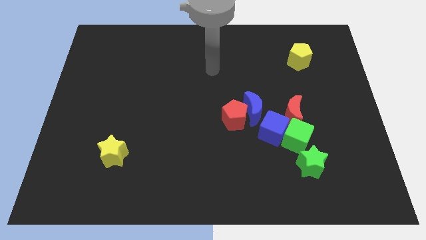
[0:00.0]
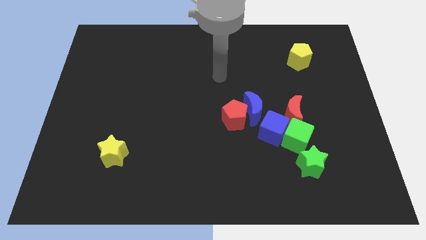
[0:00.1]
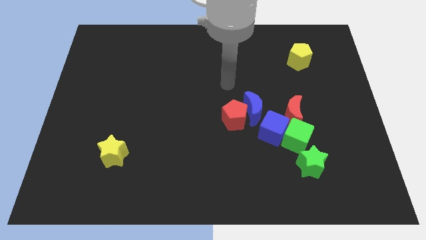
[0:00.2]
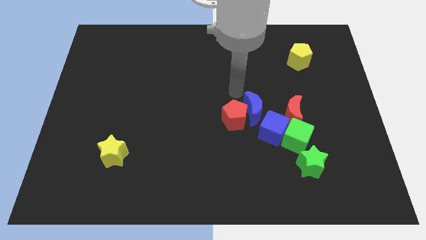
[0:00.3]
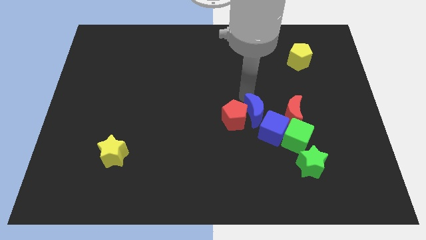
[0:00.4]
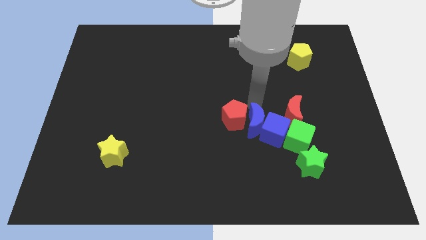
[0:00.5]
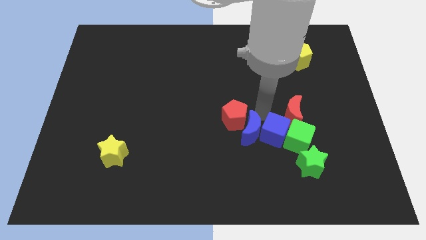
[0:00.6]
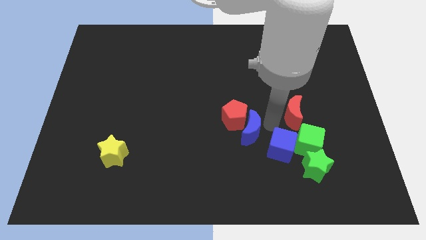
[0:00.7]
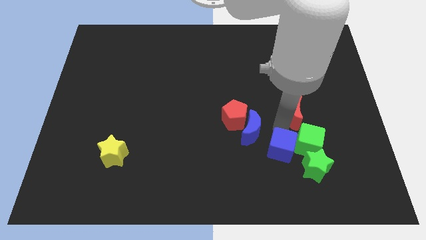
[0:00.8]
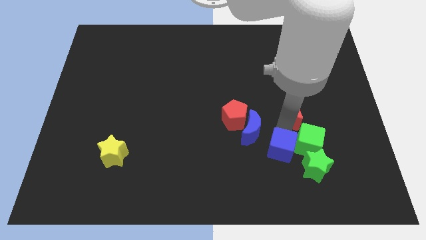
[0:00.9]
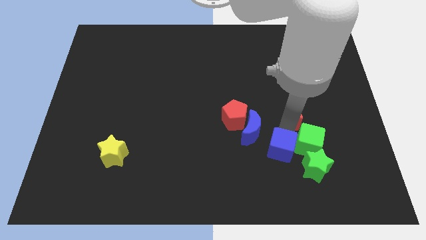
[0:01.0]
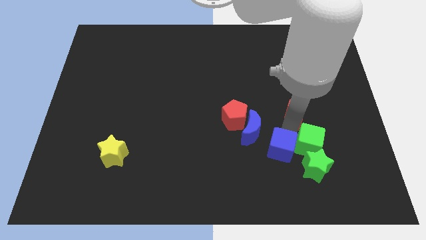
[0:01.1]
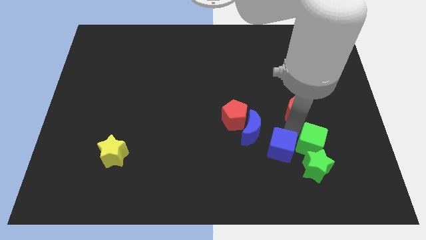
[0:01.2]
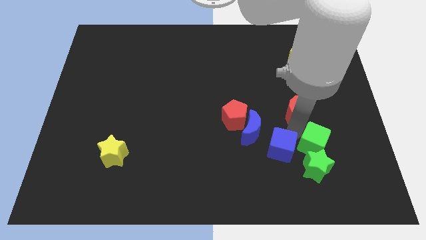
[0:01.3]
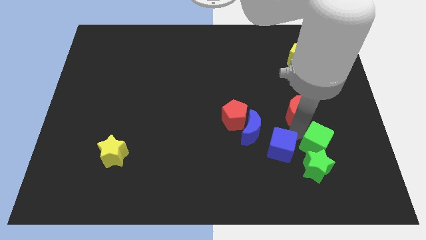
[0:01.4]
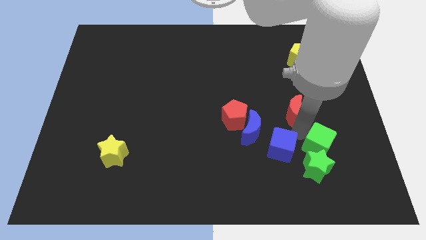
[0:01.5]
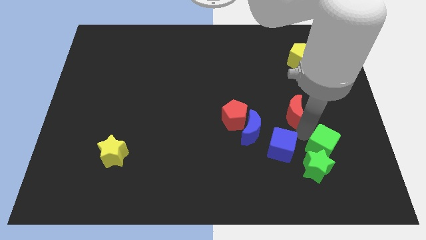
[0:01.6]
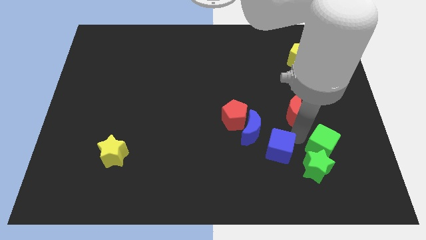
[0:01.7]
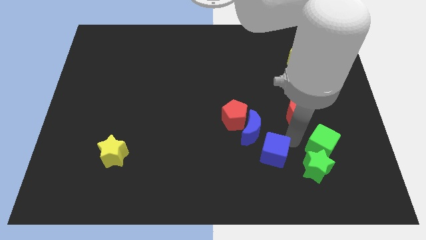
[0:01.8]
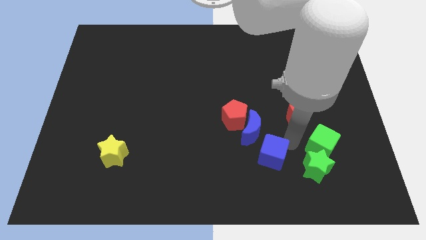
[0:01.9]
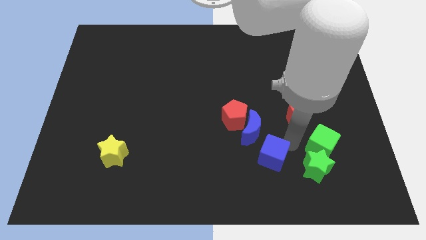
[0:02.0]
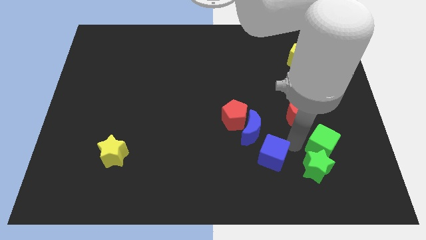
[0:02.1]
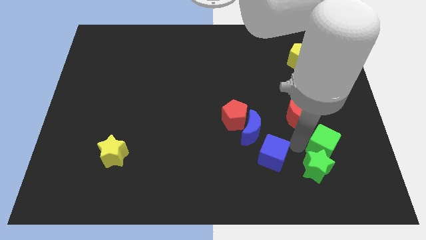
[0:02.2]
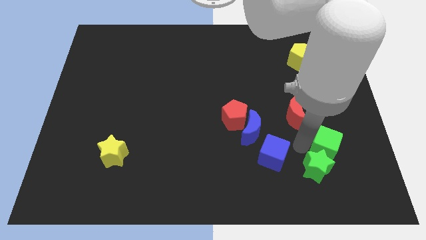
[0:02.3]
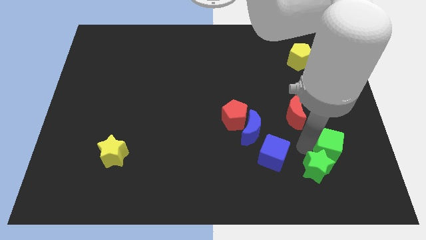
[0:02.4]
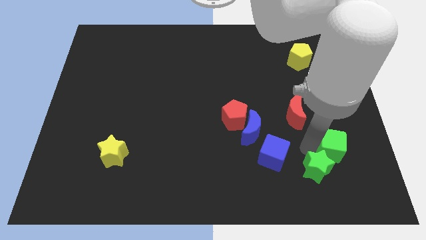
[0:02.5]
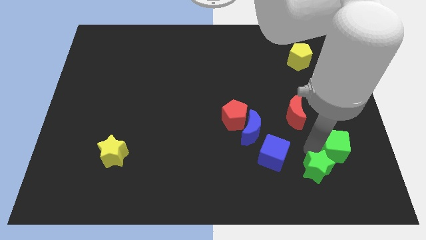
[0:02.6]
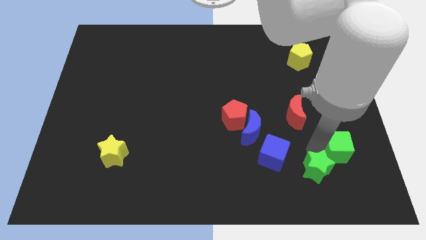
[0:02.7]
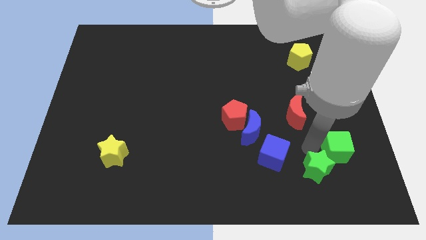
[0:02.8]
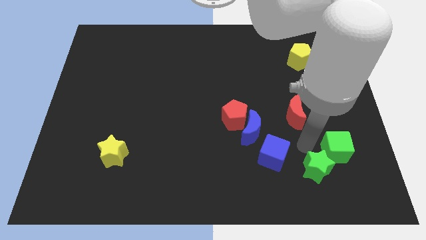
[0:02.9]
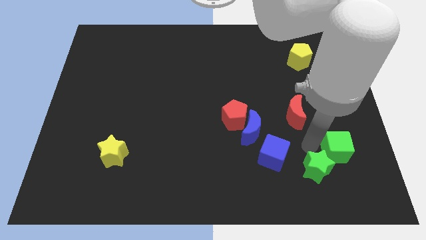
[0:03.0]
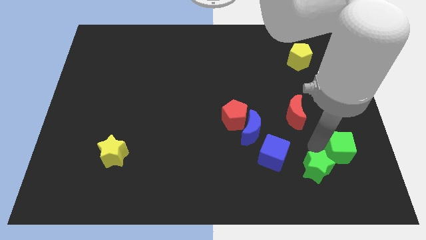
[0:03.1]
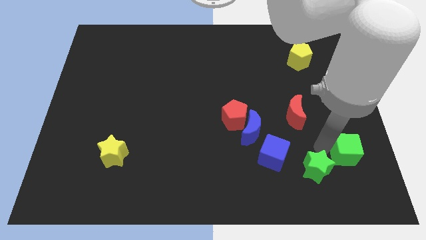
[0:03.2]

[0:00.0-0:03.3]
pull the green cube apart from the group

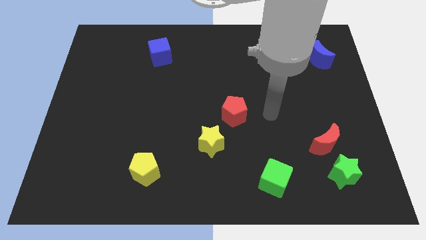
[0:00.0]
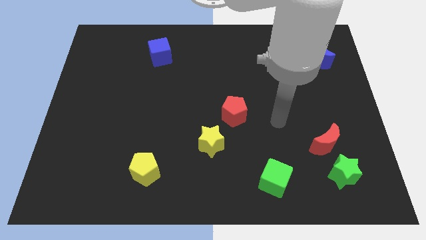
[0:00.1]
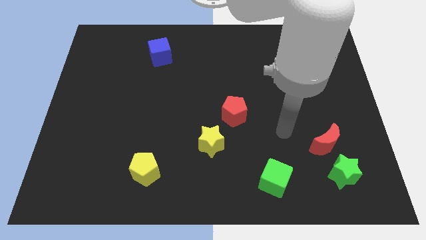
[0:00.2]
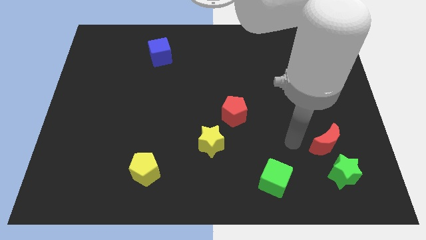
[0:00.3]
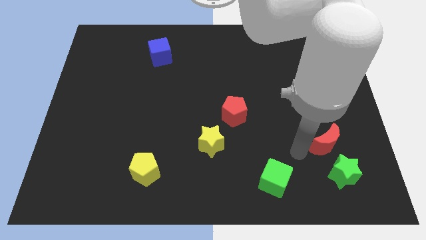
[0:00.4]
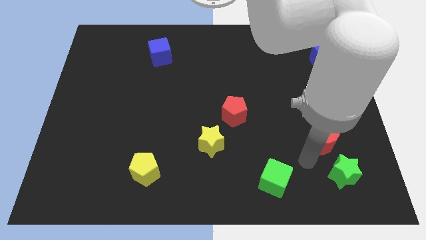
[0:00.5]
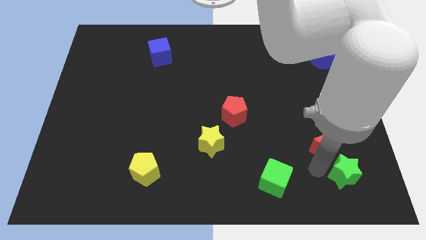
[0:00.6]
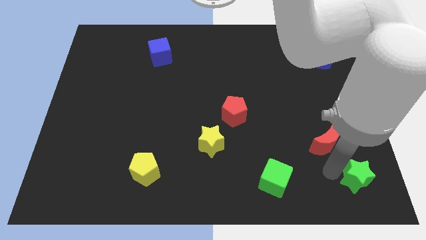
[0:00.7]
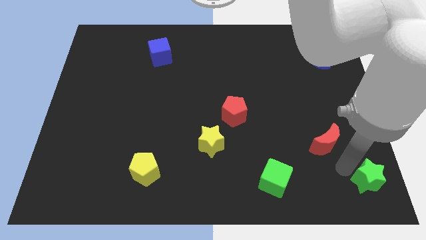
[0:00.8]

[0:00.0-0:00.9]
pull the red moon apart from the green star

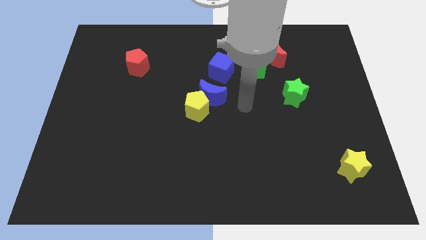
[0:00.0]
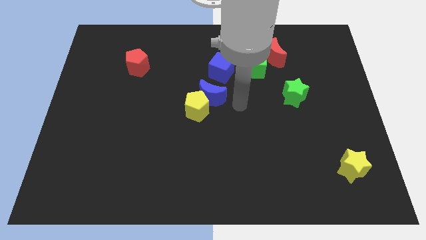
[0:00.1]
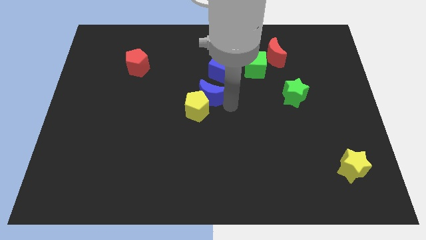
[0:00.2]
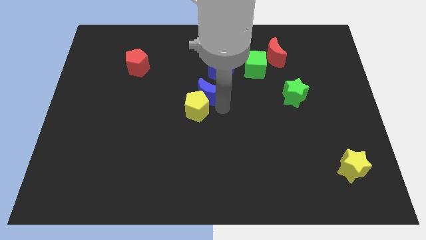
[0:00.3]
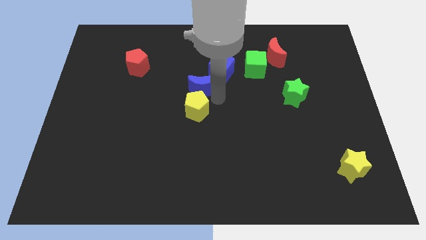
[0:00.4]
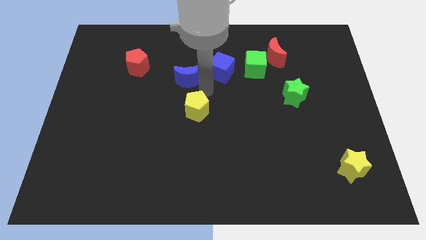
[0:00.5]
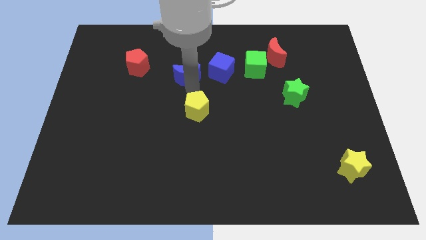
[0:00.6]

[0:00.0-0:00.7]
pull the yellow pentagon apart from the blue moon

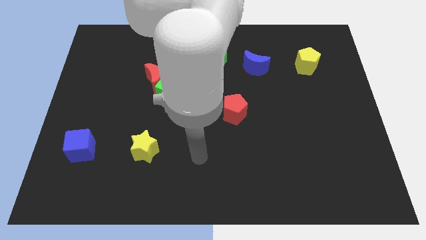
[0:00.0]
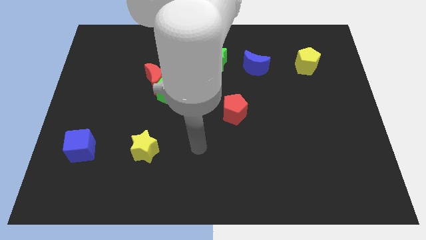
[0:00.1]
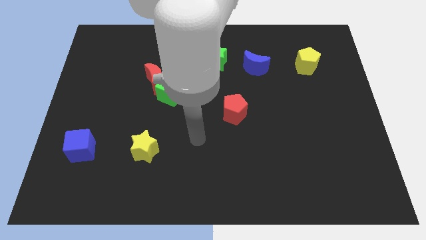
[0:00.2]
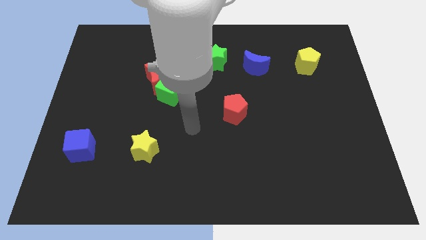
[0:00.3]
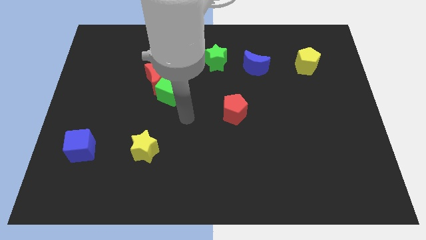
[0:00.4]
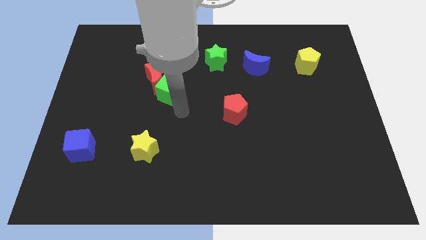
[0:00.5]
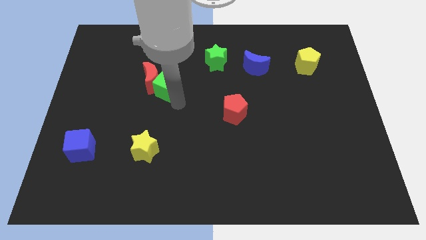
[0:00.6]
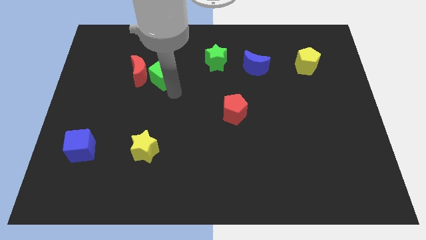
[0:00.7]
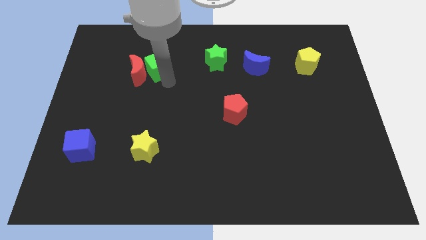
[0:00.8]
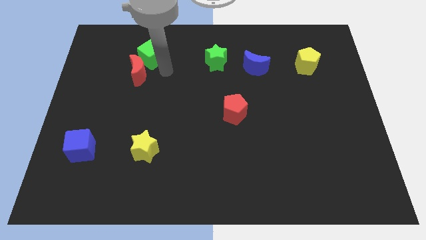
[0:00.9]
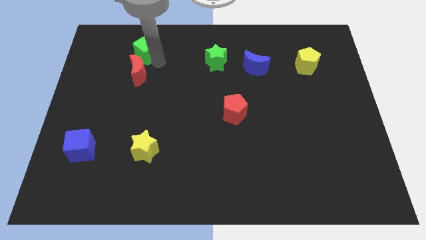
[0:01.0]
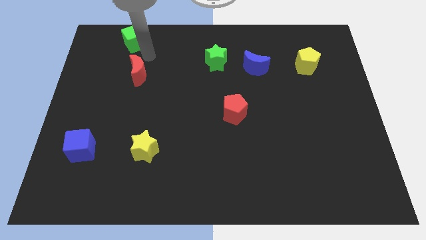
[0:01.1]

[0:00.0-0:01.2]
move the red moon away from the green cube

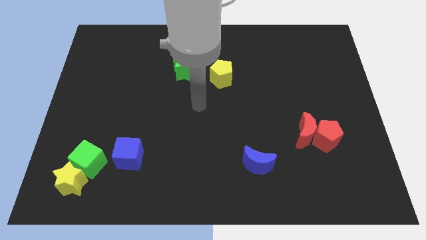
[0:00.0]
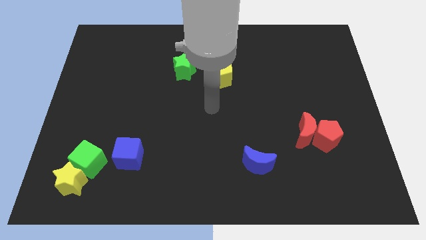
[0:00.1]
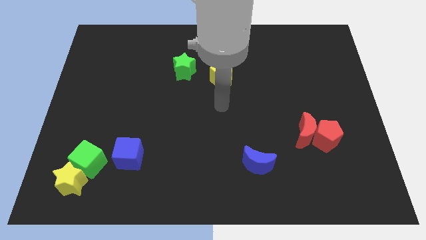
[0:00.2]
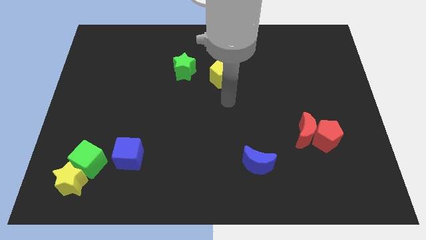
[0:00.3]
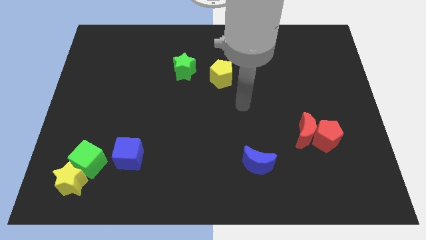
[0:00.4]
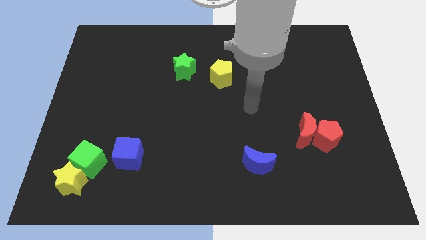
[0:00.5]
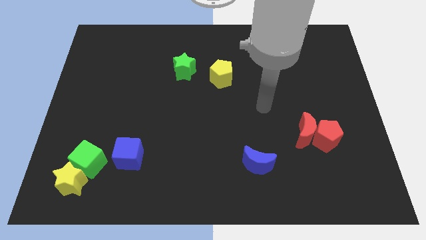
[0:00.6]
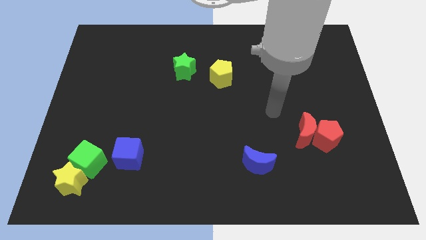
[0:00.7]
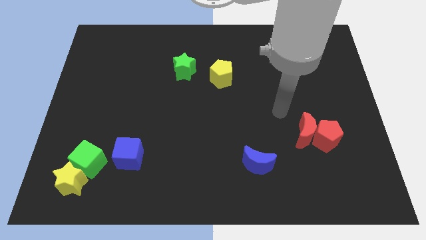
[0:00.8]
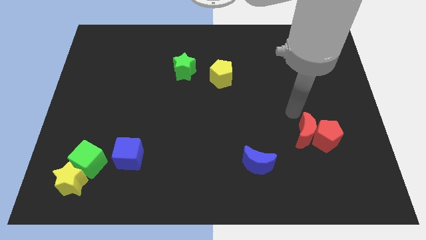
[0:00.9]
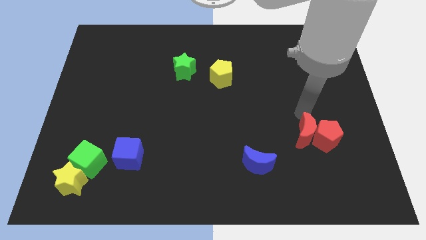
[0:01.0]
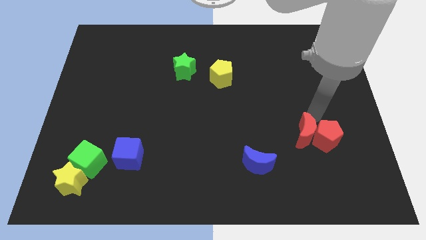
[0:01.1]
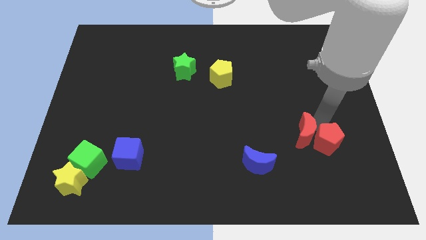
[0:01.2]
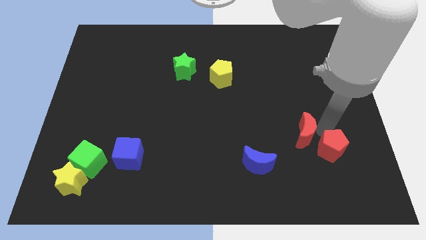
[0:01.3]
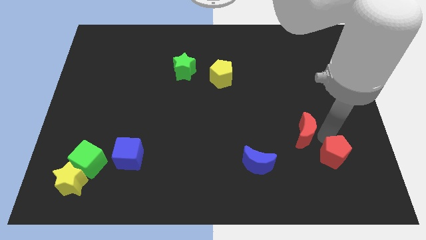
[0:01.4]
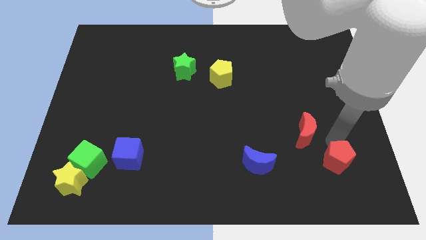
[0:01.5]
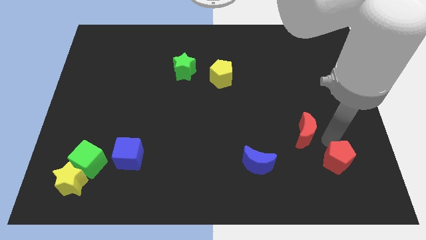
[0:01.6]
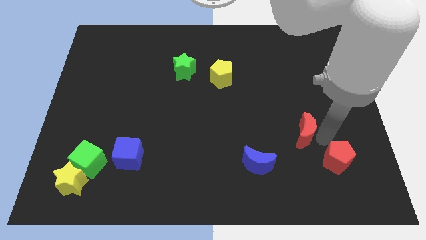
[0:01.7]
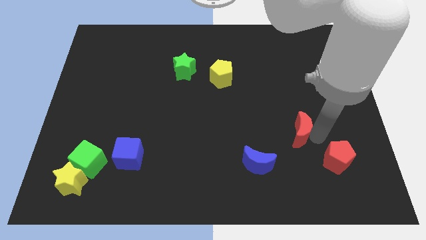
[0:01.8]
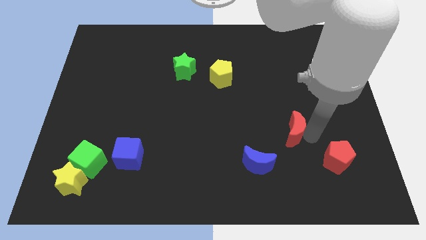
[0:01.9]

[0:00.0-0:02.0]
separate the red moon from the red pentagon

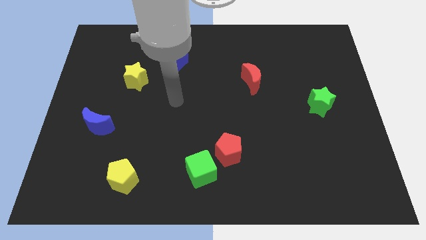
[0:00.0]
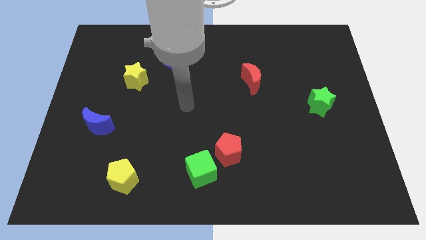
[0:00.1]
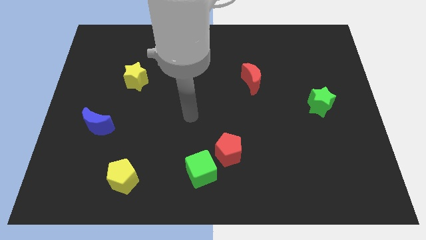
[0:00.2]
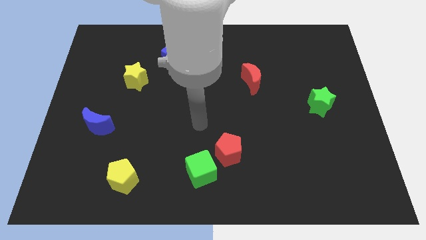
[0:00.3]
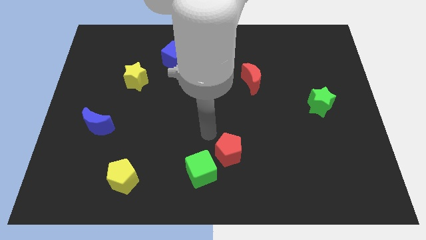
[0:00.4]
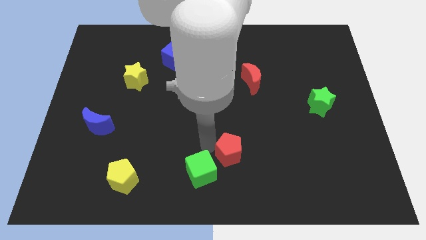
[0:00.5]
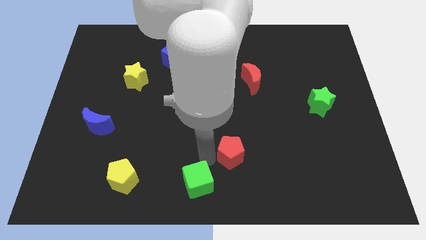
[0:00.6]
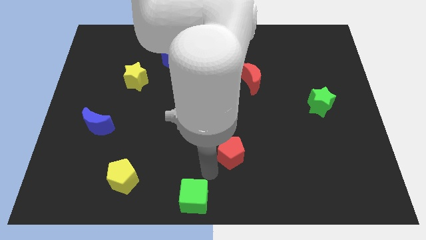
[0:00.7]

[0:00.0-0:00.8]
move the red pentagon away from the green cube

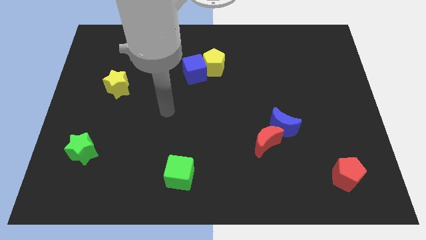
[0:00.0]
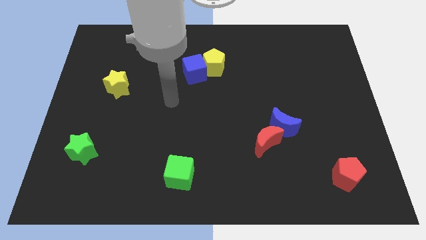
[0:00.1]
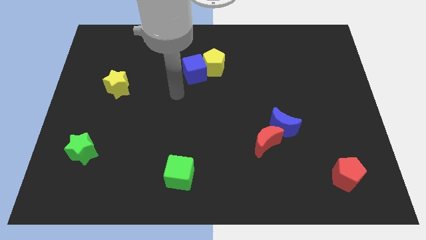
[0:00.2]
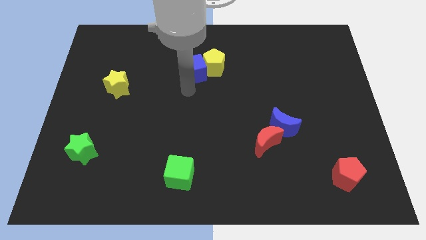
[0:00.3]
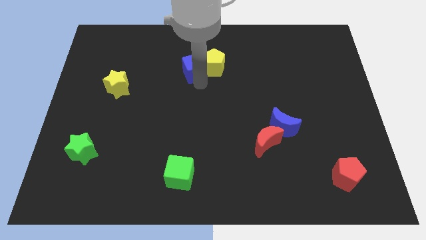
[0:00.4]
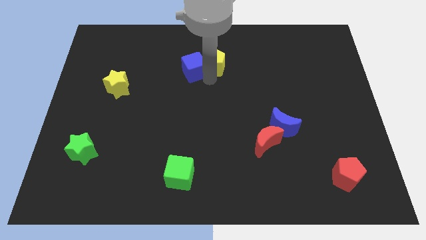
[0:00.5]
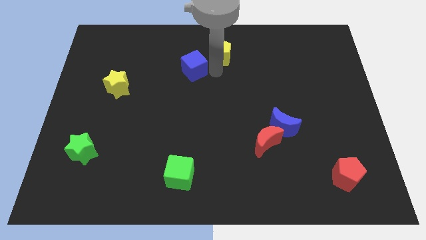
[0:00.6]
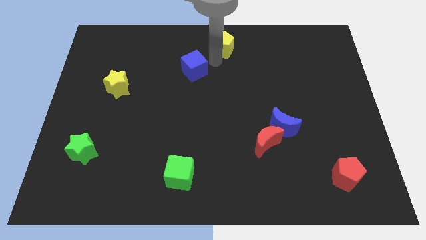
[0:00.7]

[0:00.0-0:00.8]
pull the blue cube apart from the yellow pentagon
